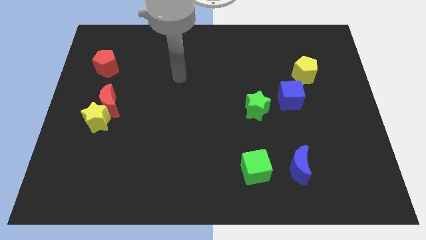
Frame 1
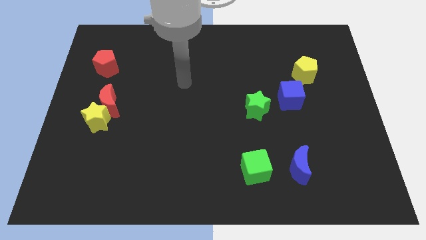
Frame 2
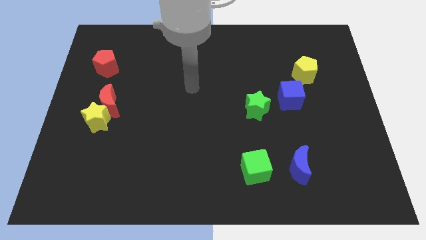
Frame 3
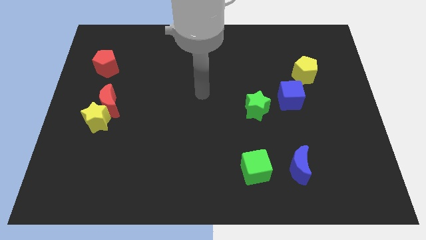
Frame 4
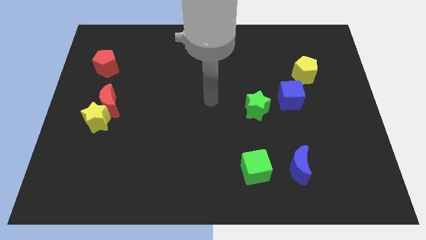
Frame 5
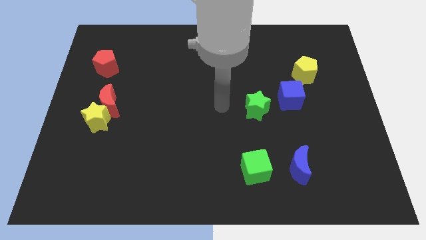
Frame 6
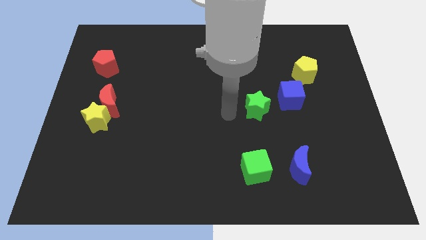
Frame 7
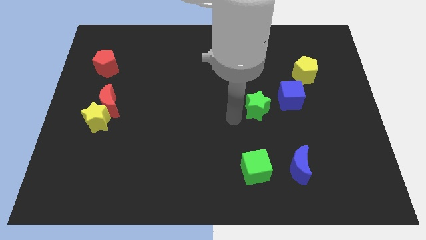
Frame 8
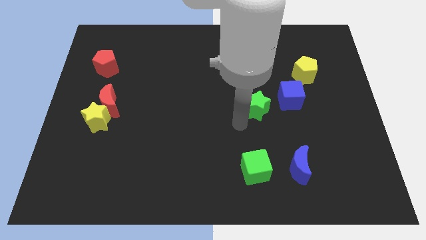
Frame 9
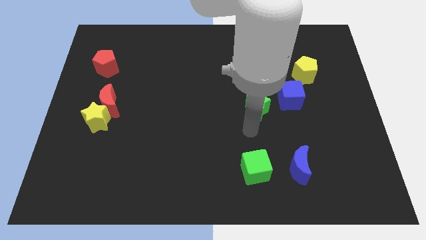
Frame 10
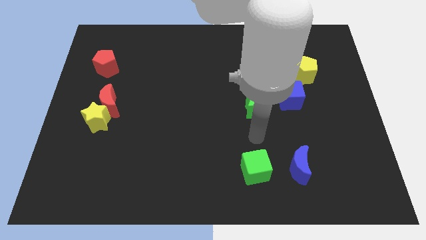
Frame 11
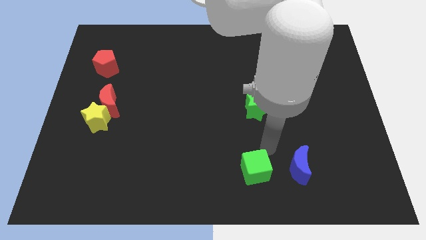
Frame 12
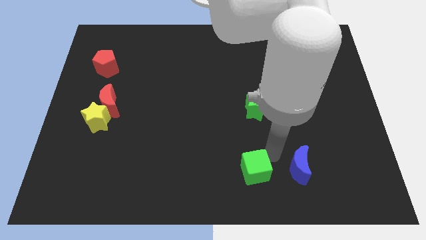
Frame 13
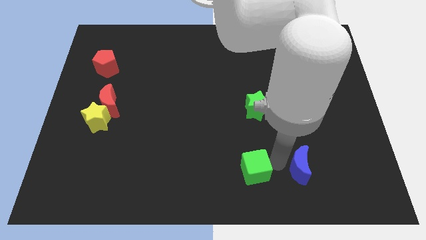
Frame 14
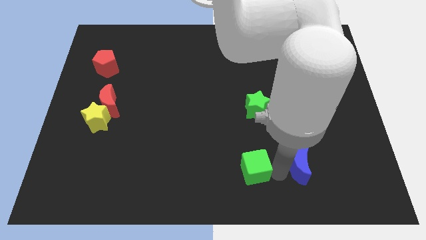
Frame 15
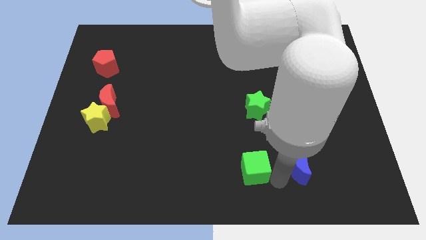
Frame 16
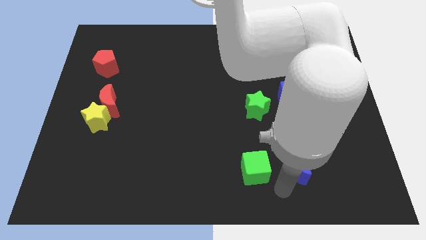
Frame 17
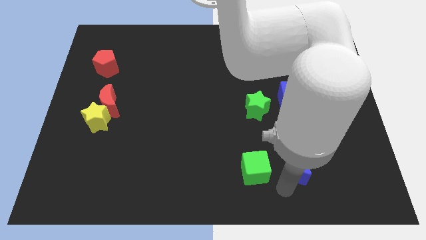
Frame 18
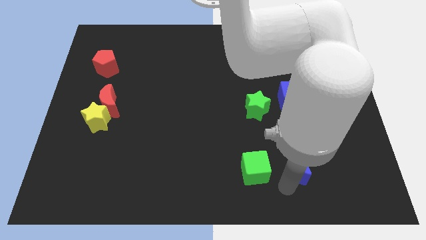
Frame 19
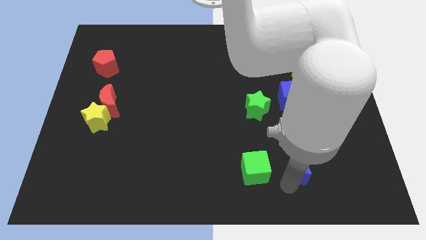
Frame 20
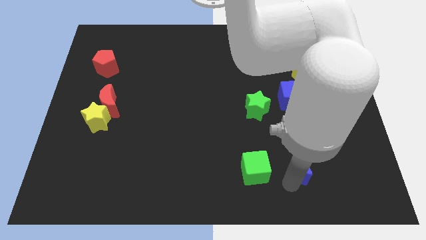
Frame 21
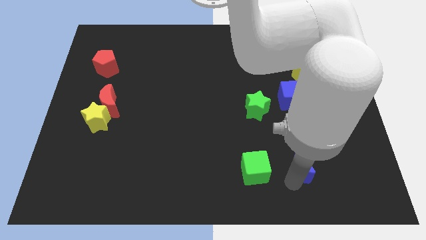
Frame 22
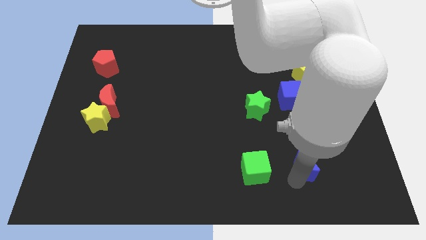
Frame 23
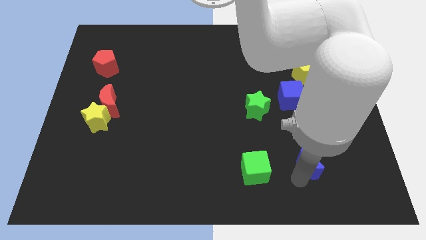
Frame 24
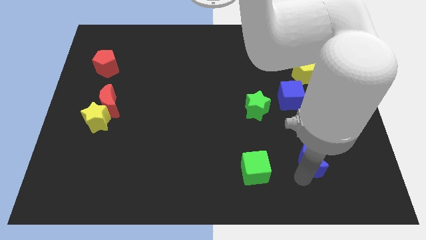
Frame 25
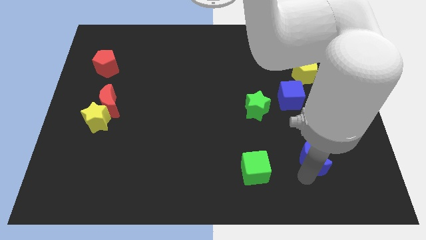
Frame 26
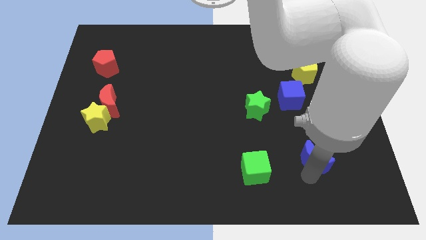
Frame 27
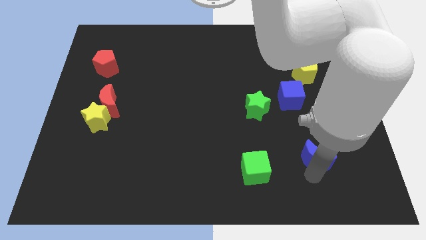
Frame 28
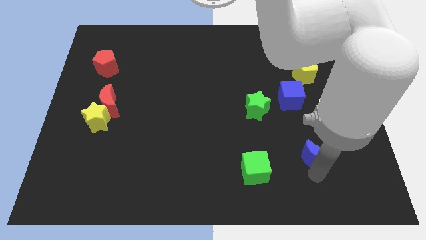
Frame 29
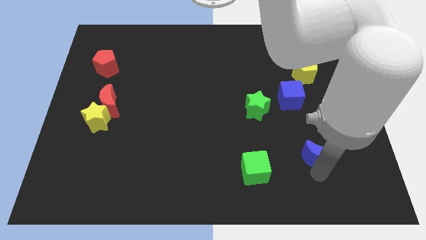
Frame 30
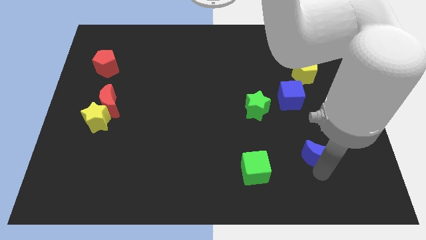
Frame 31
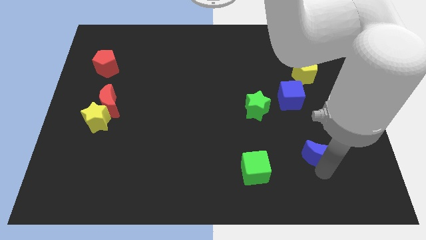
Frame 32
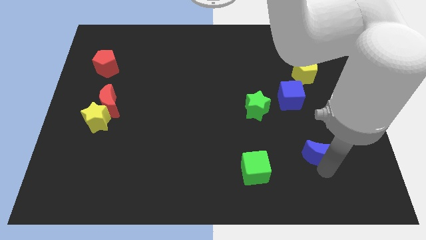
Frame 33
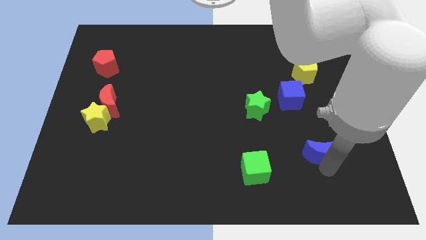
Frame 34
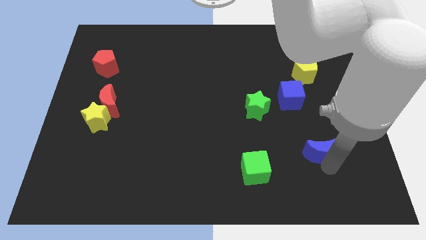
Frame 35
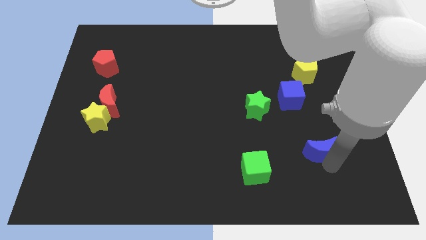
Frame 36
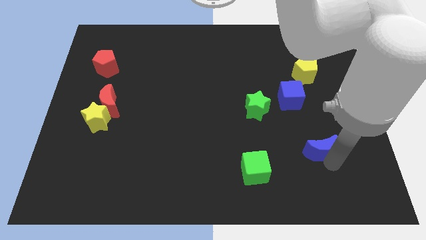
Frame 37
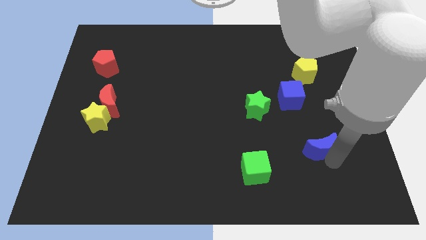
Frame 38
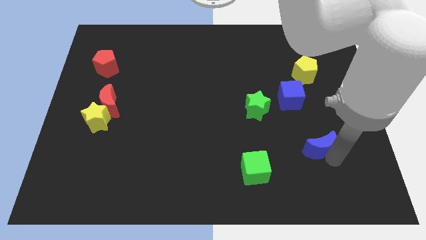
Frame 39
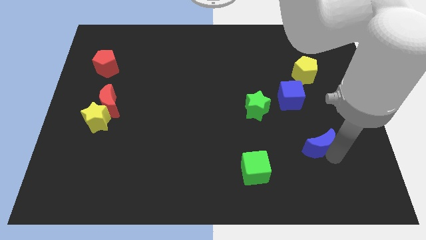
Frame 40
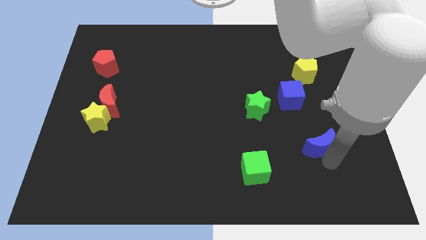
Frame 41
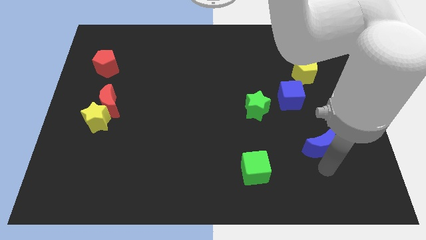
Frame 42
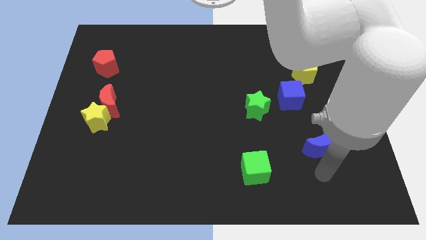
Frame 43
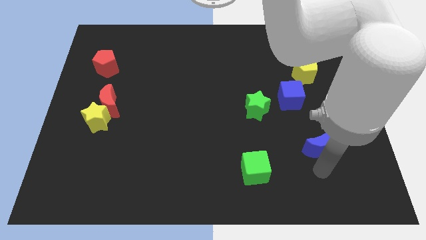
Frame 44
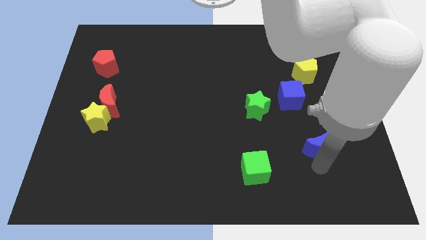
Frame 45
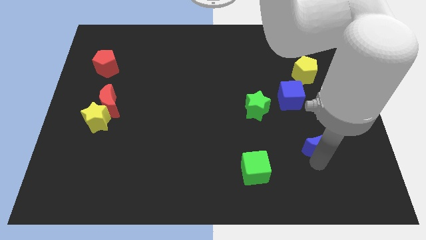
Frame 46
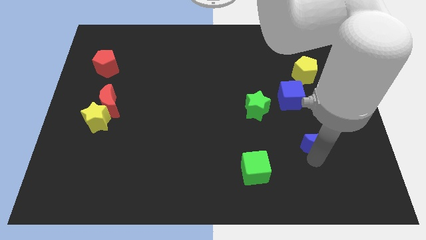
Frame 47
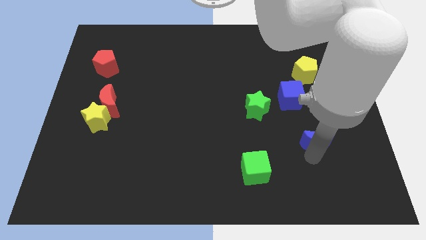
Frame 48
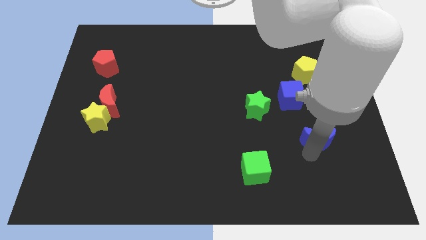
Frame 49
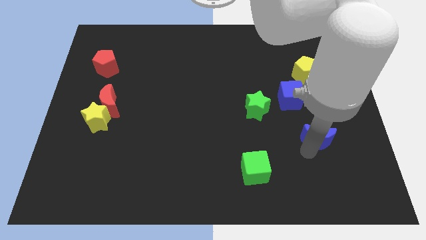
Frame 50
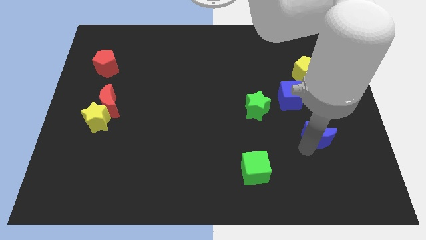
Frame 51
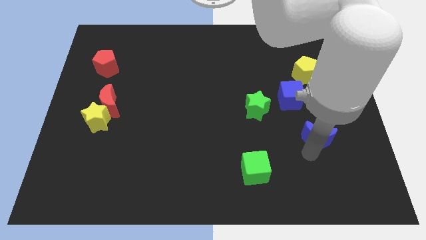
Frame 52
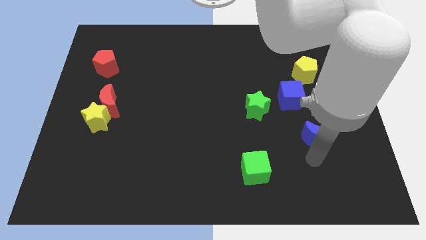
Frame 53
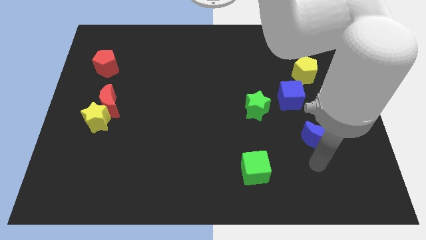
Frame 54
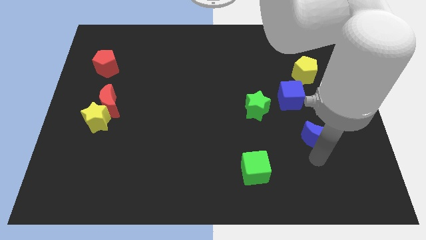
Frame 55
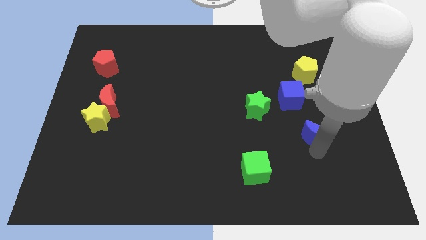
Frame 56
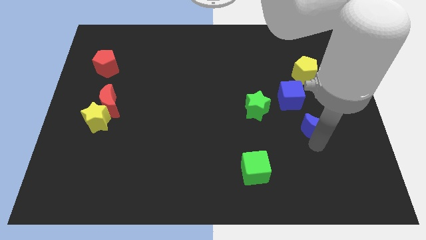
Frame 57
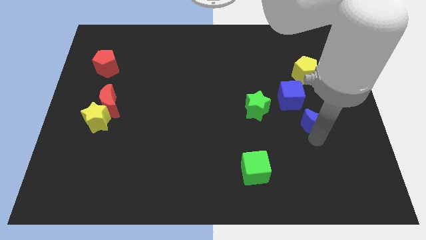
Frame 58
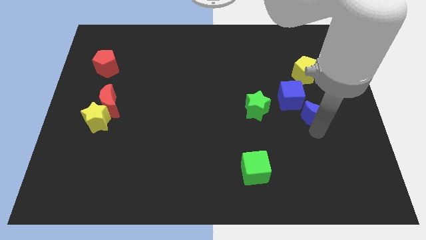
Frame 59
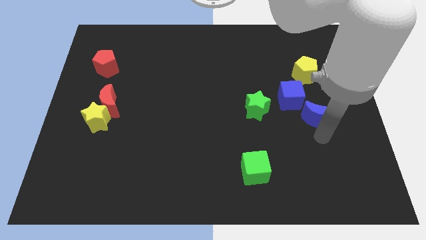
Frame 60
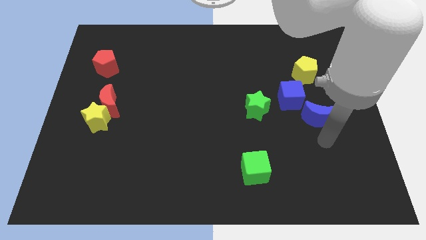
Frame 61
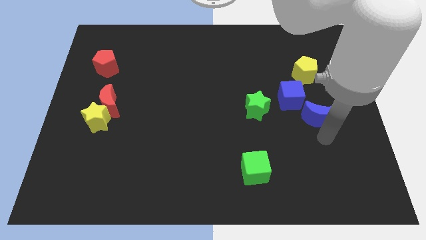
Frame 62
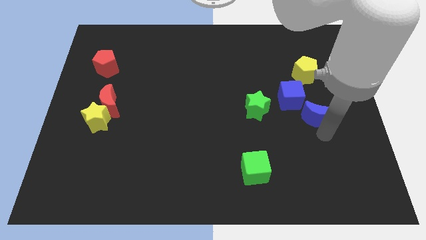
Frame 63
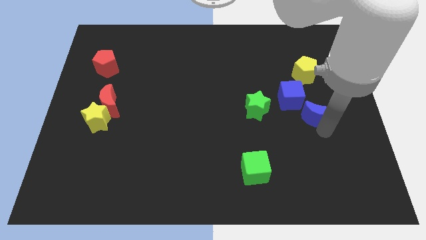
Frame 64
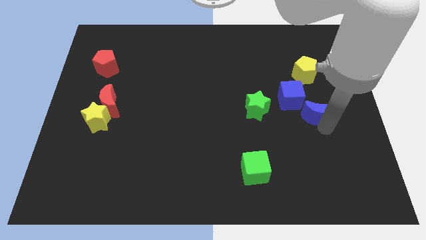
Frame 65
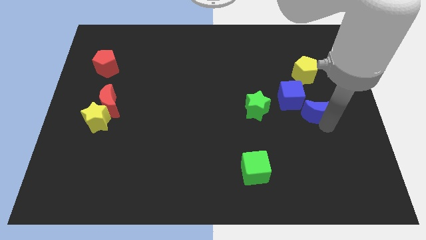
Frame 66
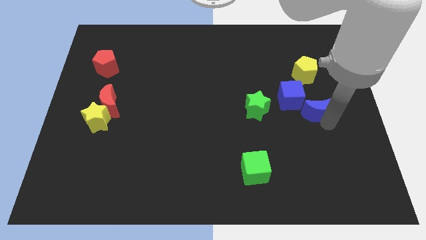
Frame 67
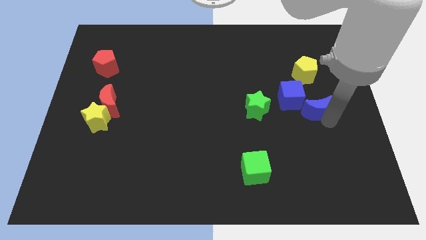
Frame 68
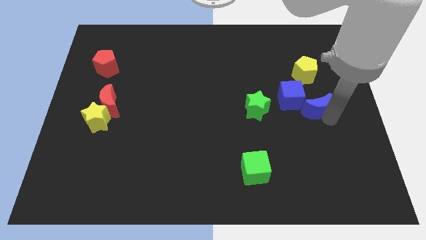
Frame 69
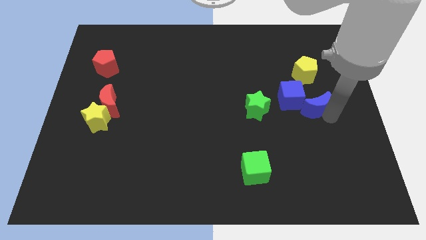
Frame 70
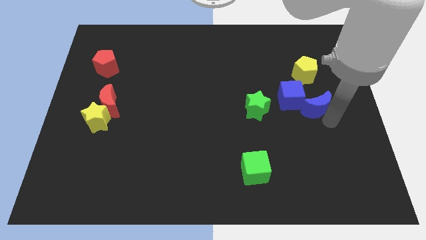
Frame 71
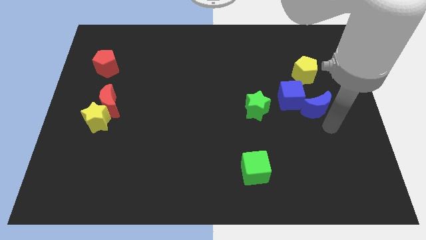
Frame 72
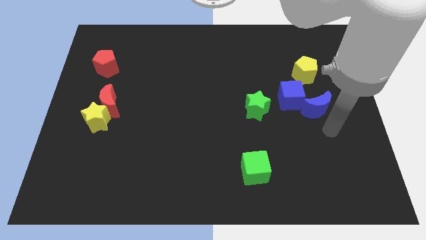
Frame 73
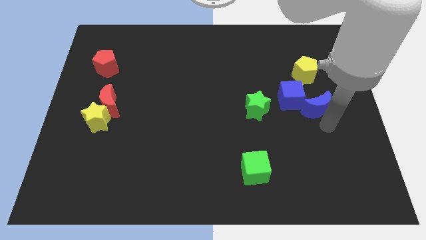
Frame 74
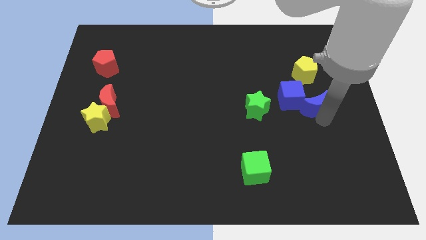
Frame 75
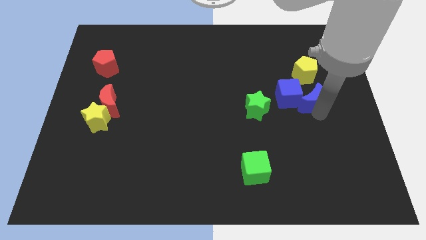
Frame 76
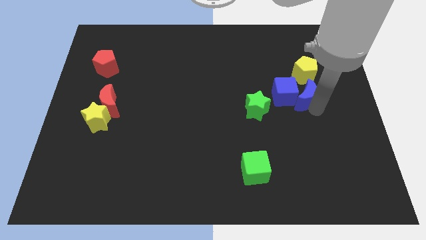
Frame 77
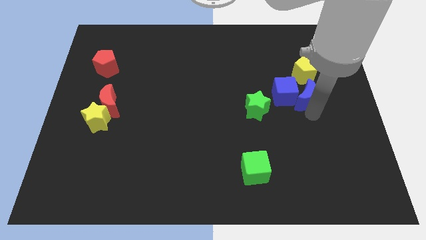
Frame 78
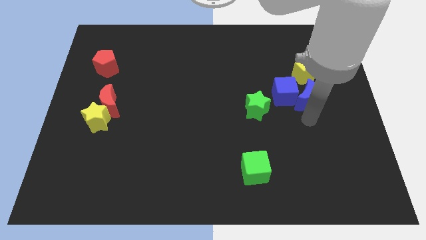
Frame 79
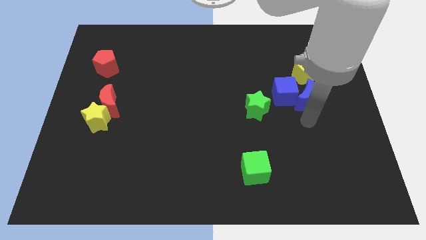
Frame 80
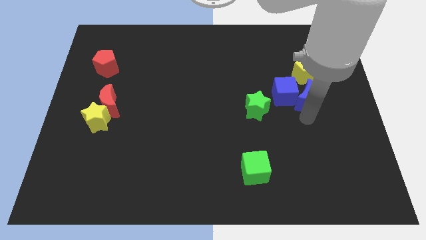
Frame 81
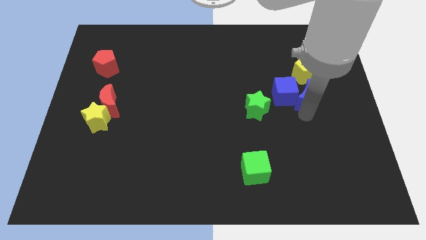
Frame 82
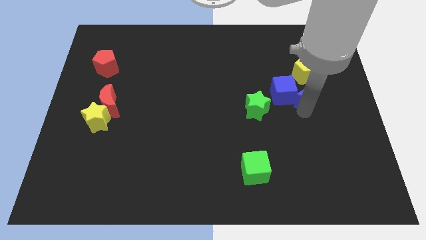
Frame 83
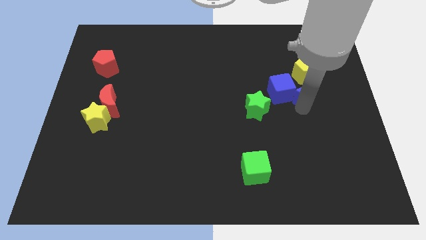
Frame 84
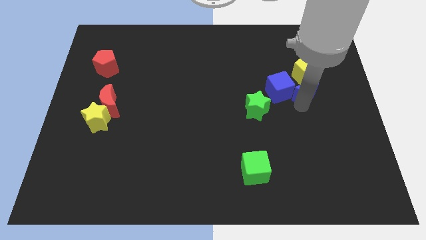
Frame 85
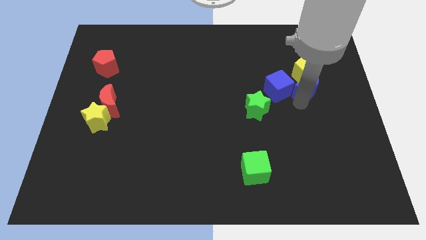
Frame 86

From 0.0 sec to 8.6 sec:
push the blue moon towards the yellow pentagon
